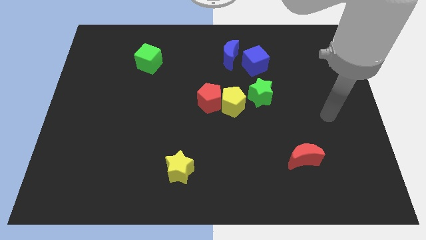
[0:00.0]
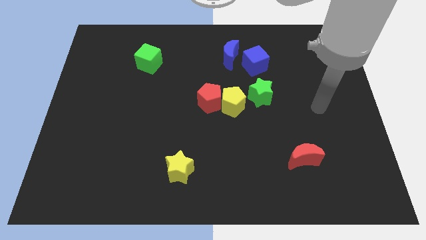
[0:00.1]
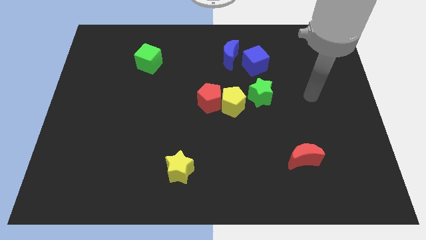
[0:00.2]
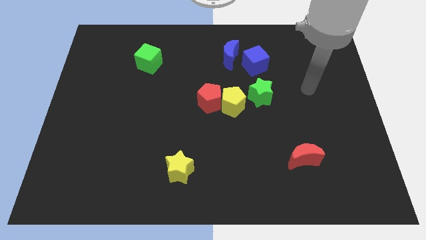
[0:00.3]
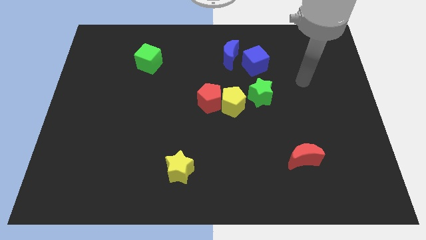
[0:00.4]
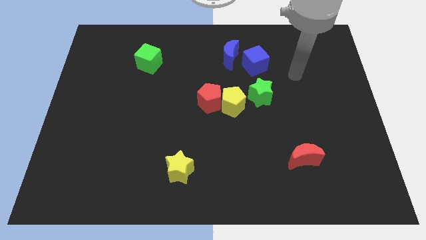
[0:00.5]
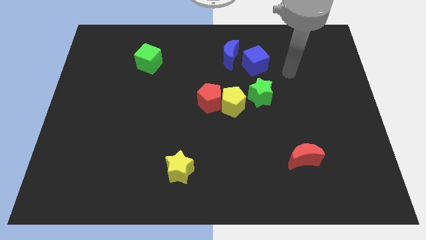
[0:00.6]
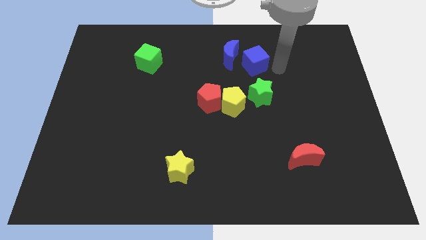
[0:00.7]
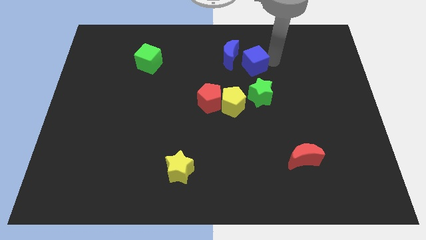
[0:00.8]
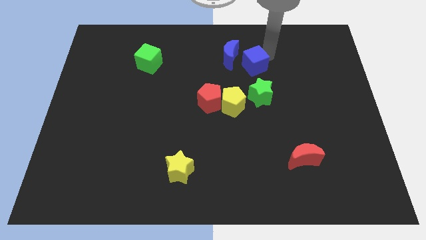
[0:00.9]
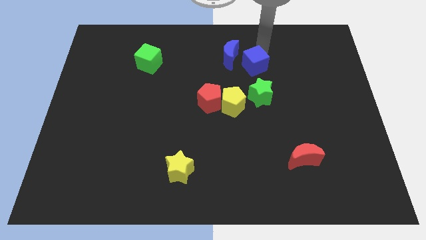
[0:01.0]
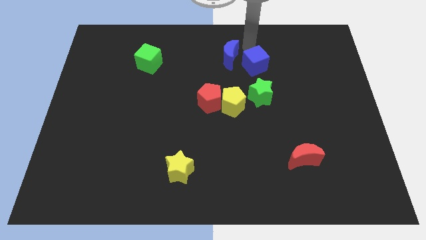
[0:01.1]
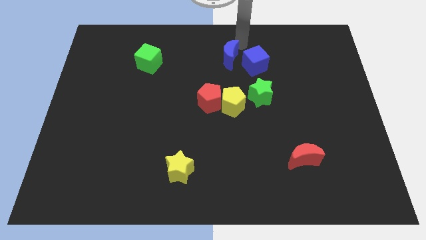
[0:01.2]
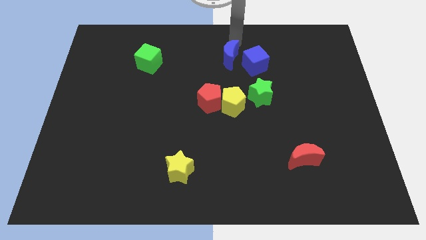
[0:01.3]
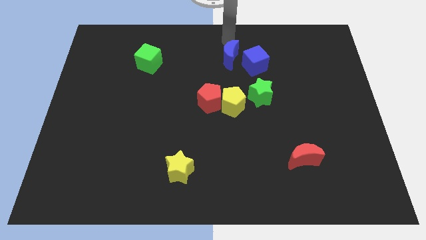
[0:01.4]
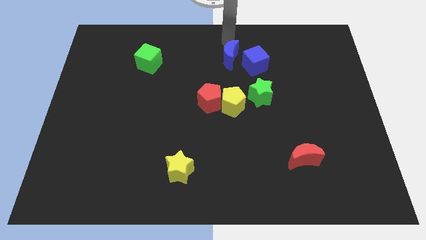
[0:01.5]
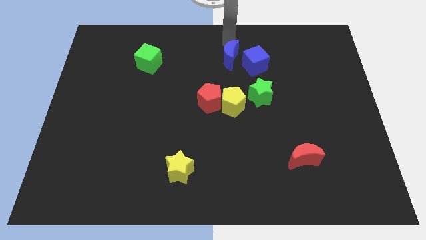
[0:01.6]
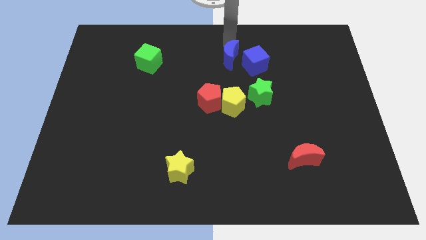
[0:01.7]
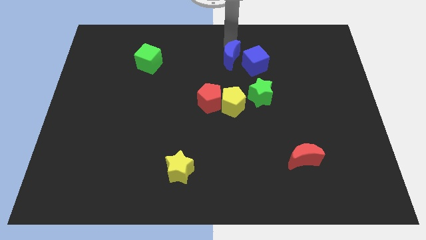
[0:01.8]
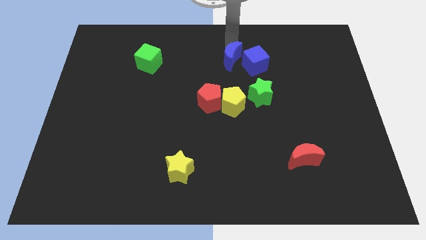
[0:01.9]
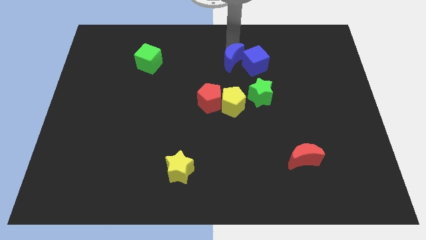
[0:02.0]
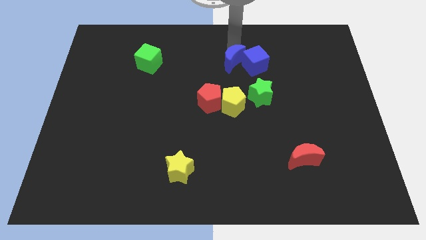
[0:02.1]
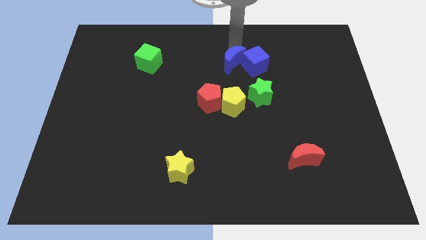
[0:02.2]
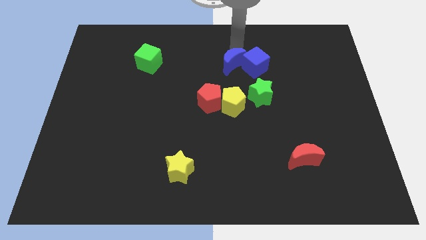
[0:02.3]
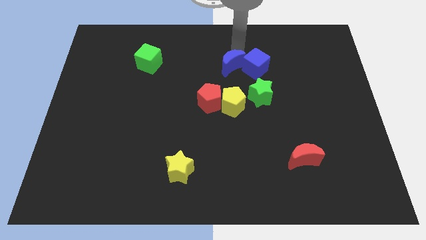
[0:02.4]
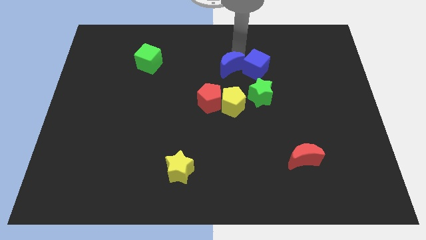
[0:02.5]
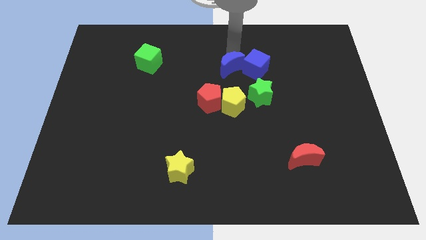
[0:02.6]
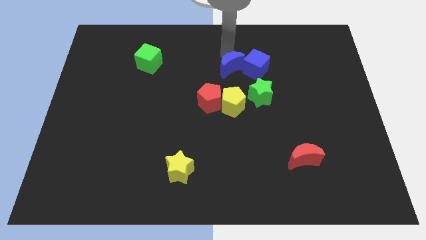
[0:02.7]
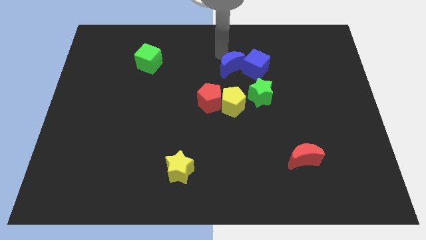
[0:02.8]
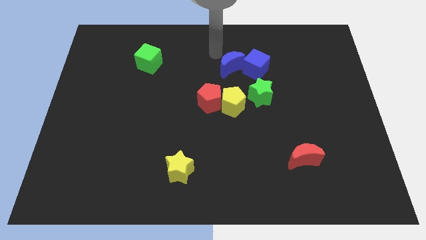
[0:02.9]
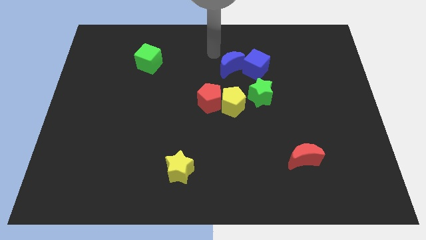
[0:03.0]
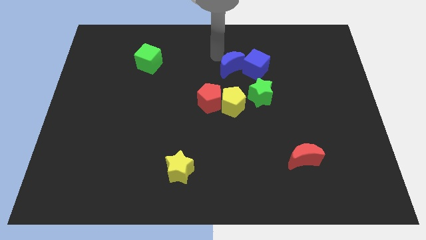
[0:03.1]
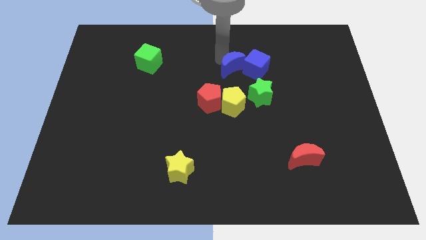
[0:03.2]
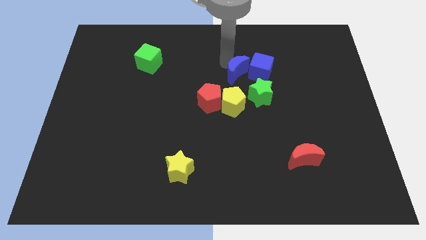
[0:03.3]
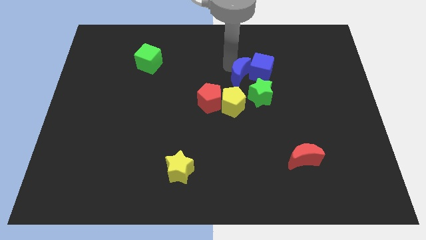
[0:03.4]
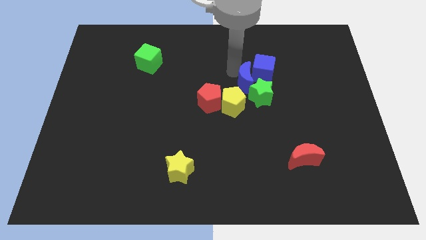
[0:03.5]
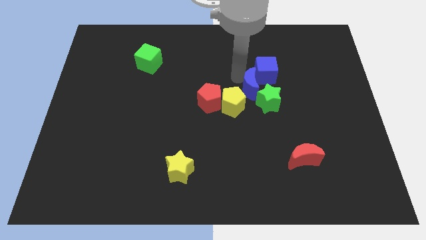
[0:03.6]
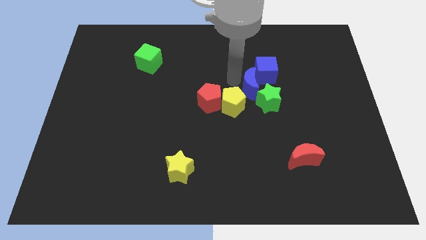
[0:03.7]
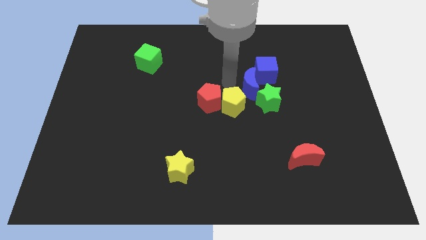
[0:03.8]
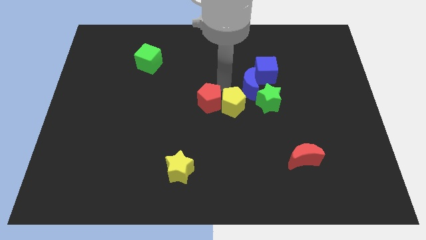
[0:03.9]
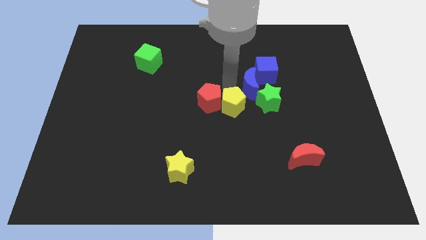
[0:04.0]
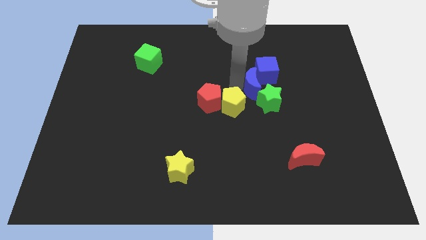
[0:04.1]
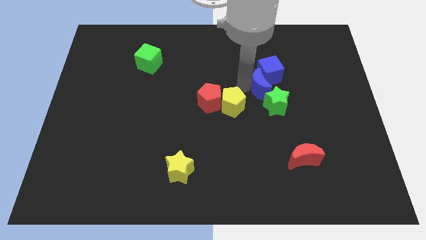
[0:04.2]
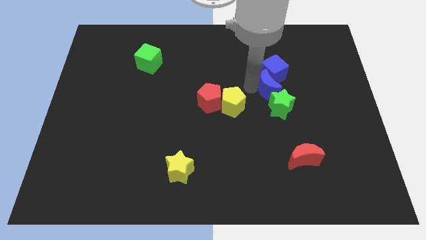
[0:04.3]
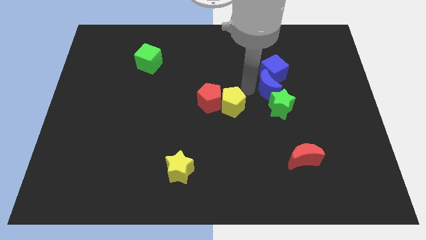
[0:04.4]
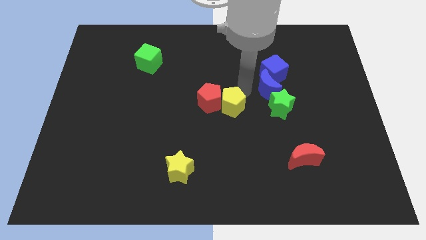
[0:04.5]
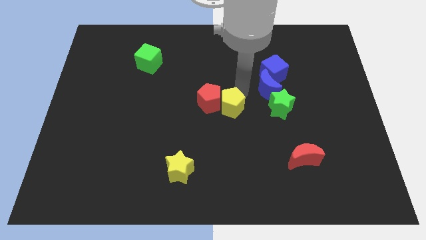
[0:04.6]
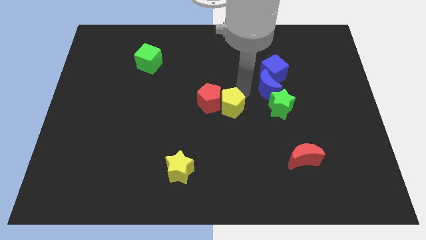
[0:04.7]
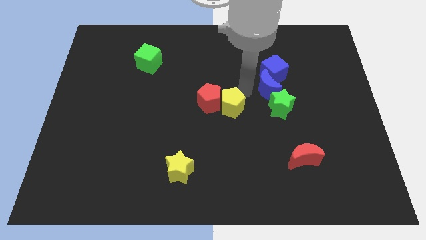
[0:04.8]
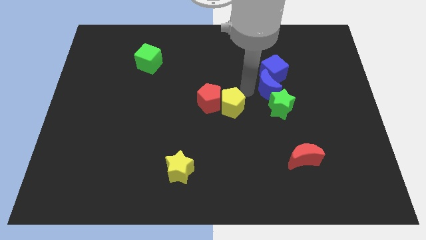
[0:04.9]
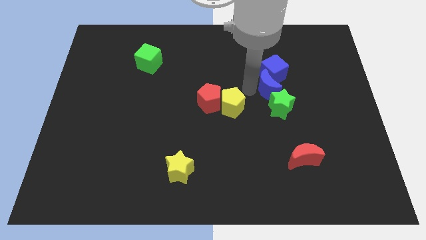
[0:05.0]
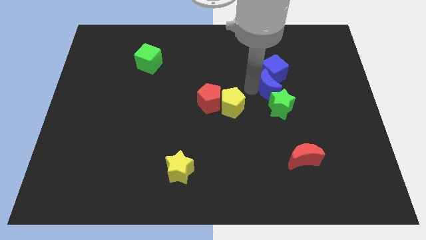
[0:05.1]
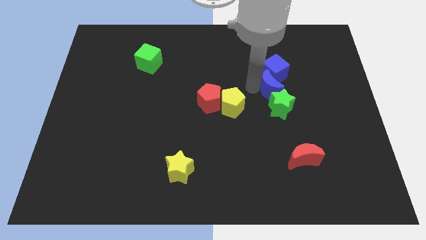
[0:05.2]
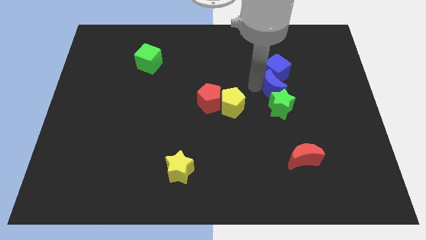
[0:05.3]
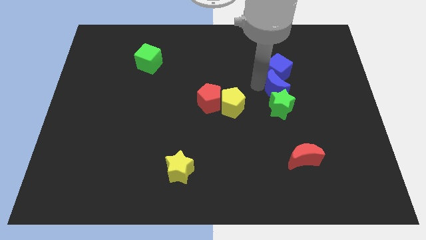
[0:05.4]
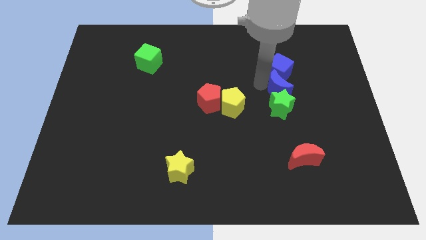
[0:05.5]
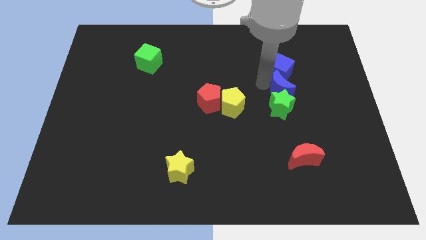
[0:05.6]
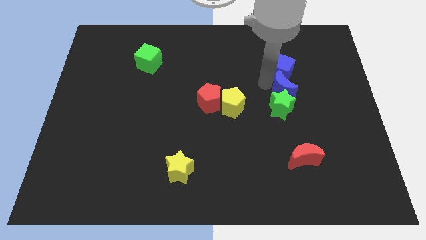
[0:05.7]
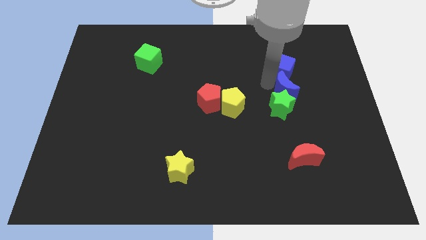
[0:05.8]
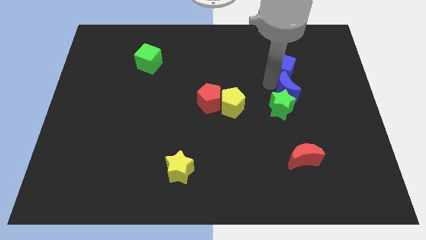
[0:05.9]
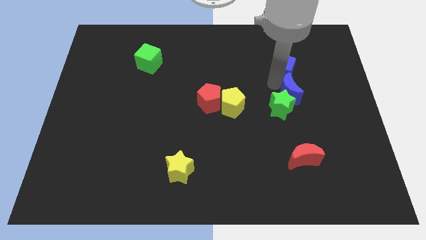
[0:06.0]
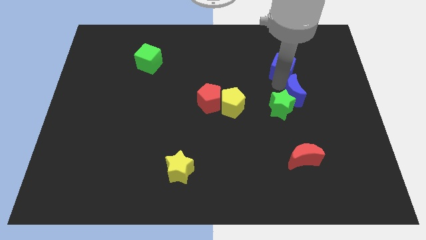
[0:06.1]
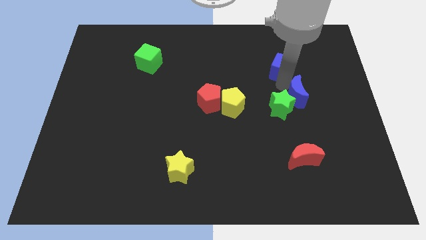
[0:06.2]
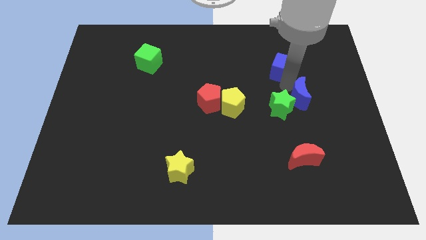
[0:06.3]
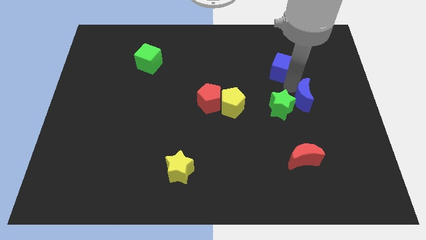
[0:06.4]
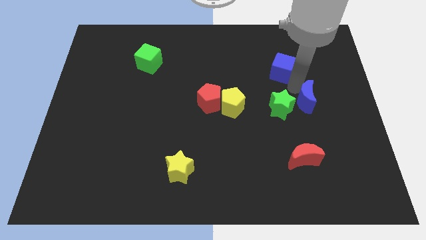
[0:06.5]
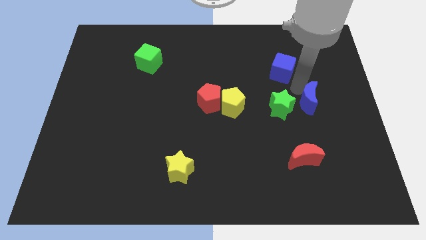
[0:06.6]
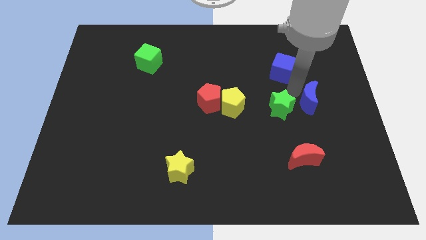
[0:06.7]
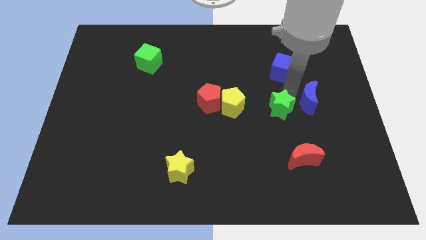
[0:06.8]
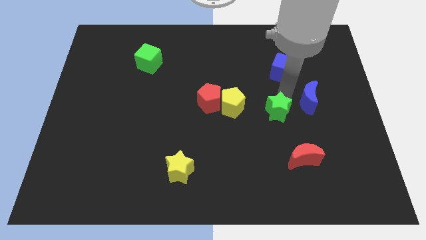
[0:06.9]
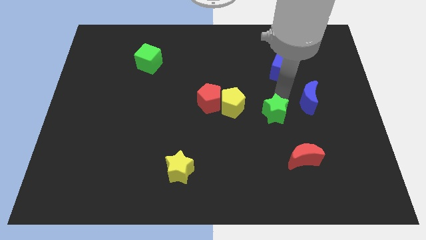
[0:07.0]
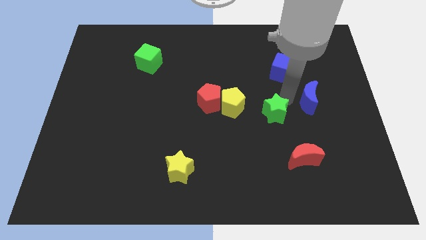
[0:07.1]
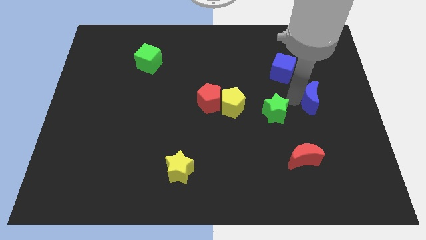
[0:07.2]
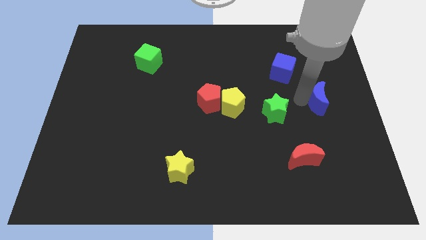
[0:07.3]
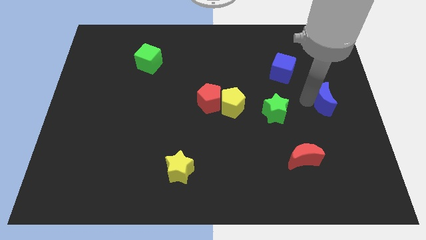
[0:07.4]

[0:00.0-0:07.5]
push the blue moon to the center right
